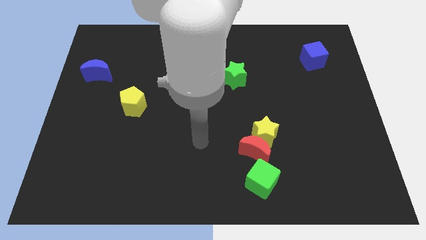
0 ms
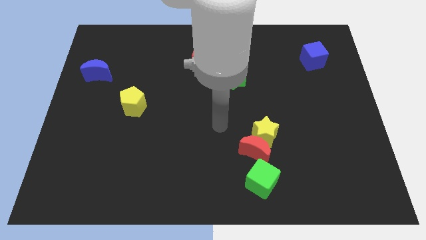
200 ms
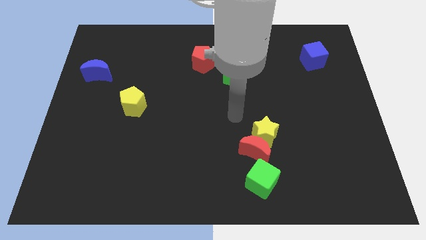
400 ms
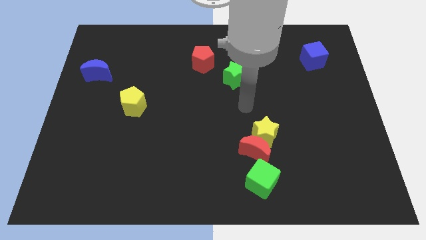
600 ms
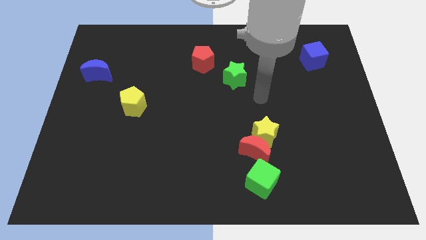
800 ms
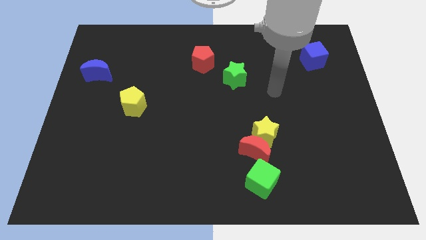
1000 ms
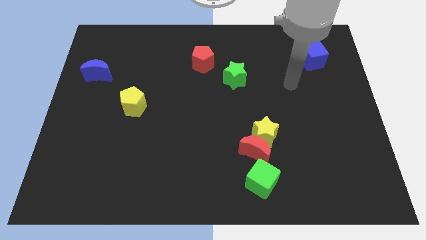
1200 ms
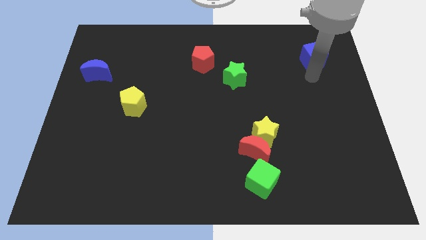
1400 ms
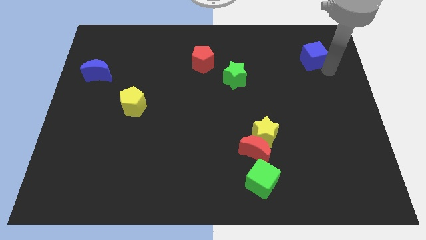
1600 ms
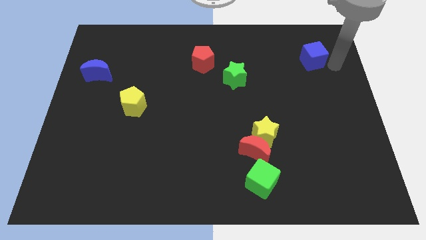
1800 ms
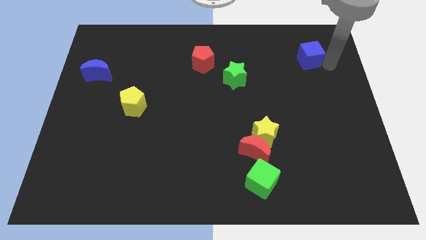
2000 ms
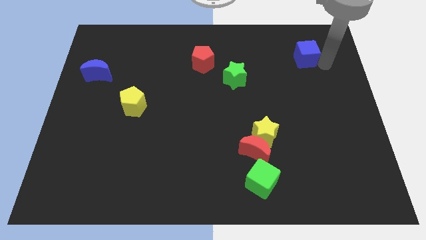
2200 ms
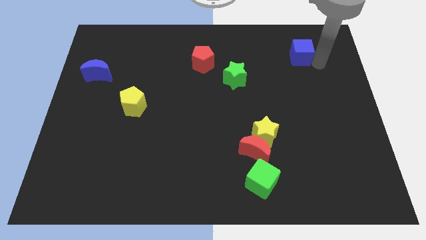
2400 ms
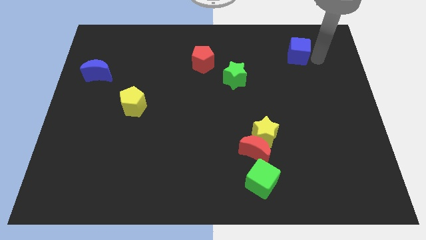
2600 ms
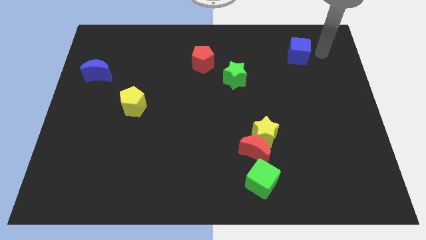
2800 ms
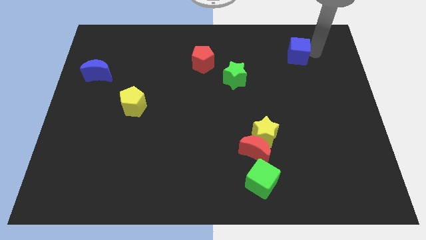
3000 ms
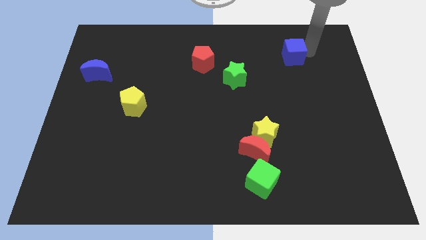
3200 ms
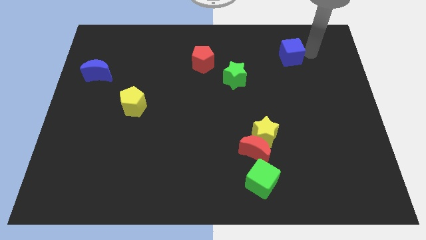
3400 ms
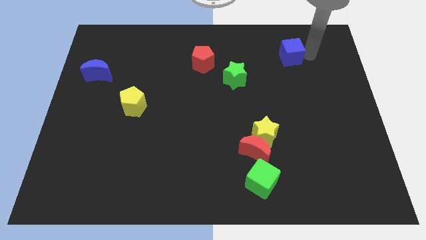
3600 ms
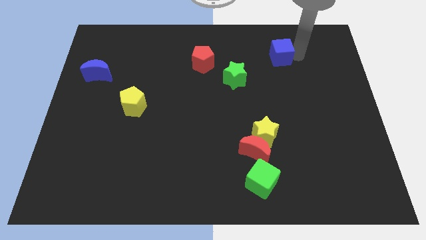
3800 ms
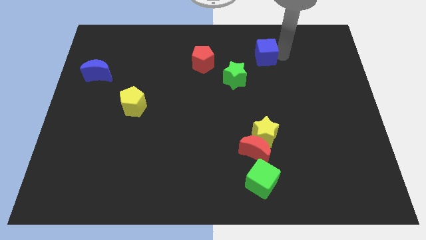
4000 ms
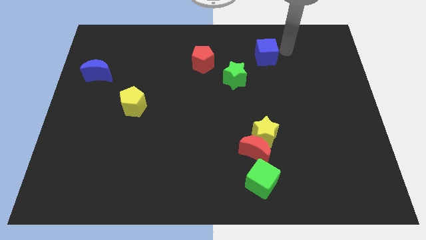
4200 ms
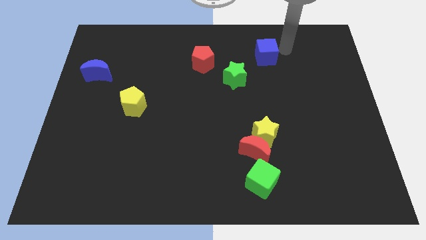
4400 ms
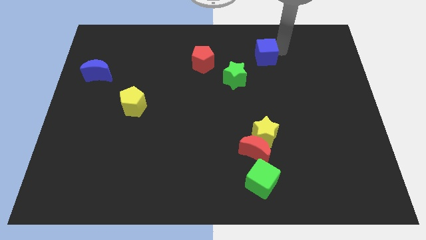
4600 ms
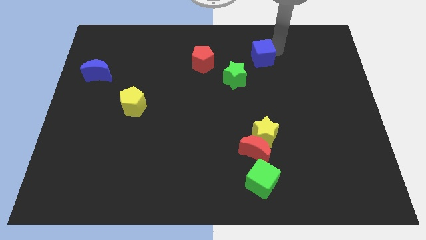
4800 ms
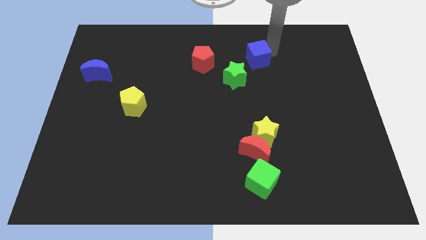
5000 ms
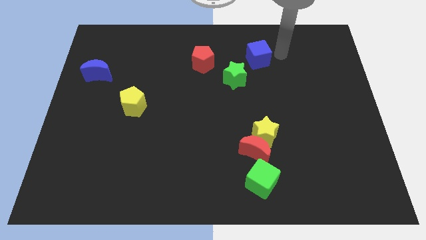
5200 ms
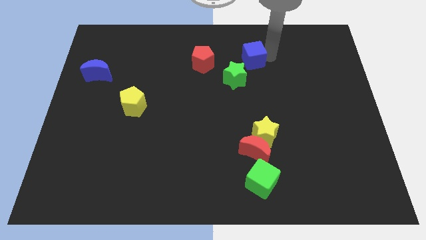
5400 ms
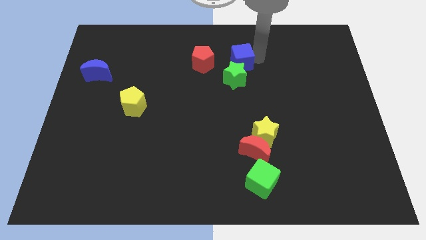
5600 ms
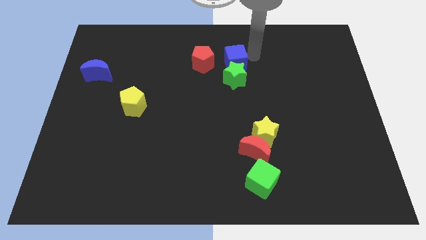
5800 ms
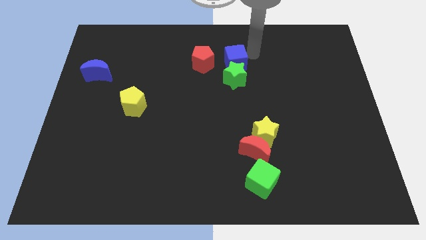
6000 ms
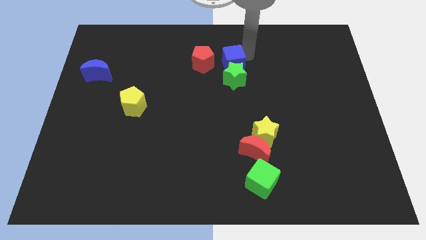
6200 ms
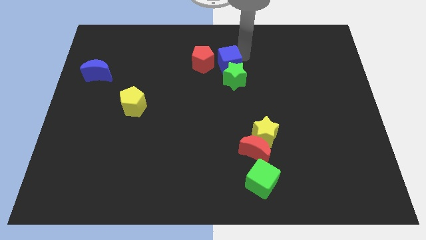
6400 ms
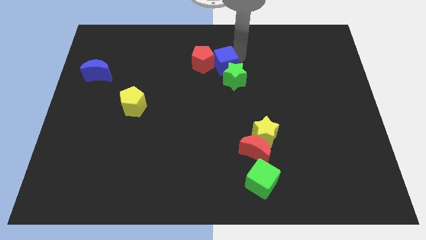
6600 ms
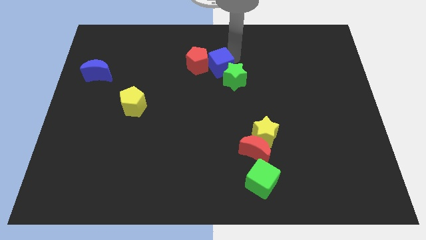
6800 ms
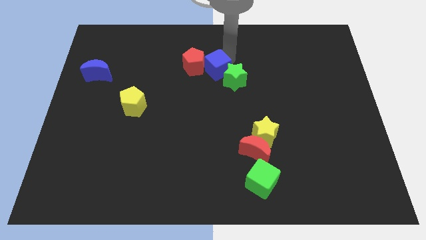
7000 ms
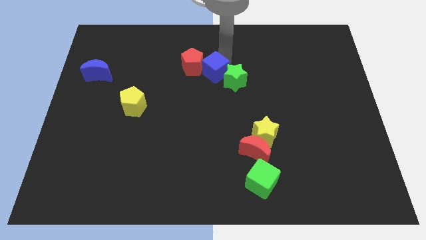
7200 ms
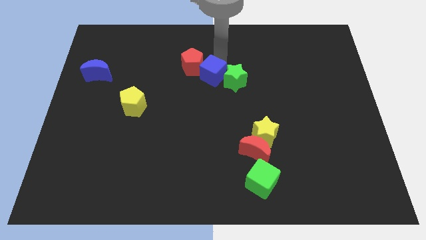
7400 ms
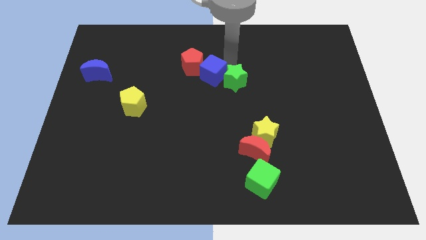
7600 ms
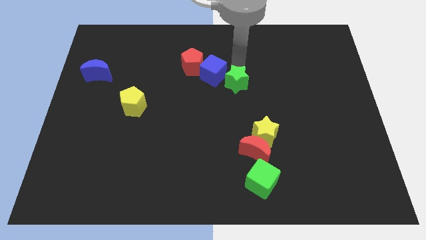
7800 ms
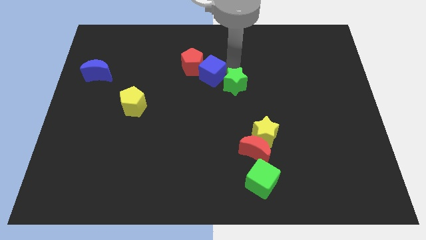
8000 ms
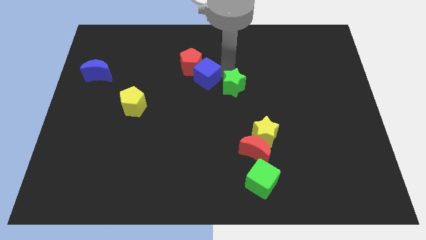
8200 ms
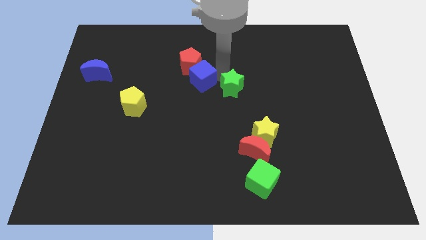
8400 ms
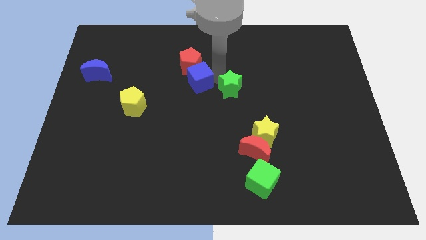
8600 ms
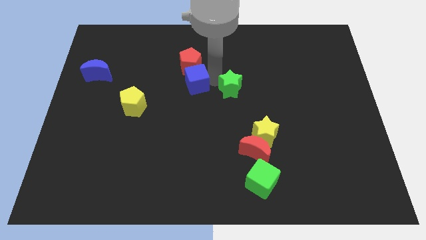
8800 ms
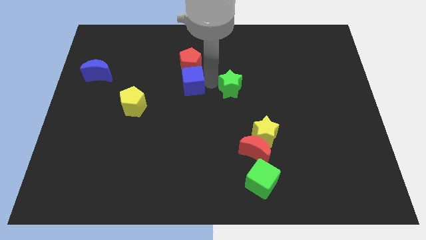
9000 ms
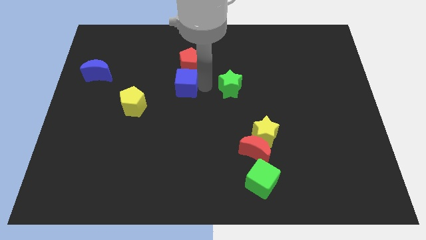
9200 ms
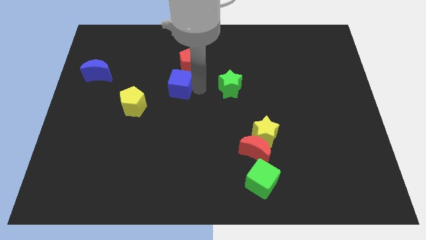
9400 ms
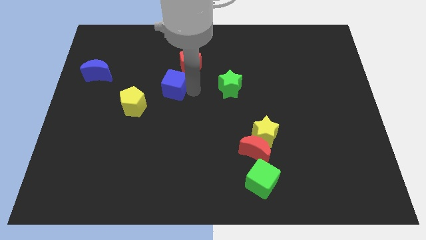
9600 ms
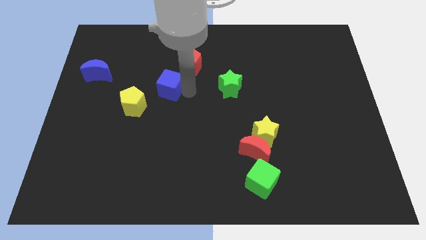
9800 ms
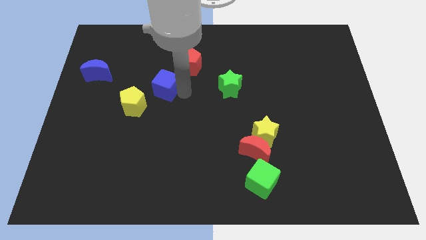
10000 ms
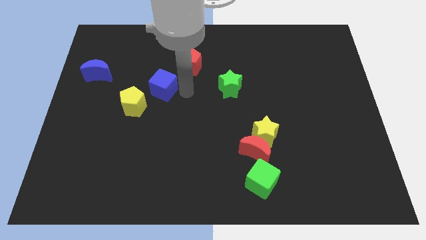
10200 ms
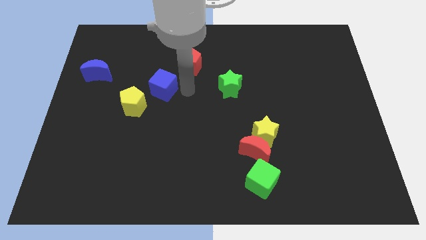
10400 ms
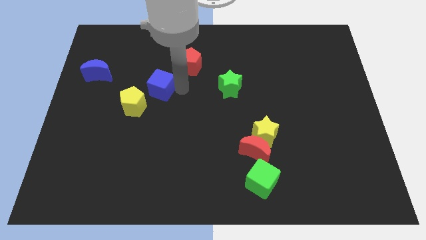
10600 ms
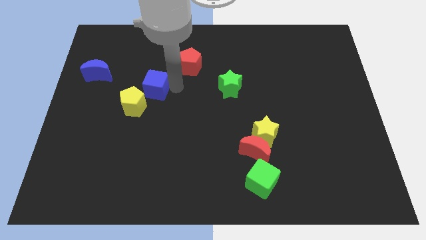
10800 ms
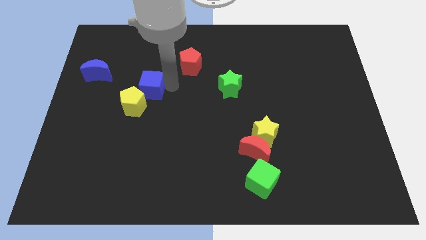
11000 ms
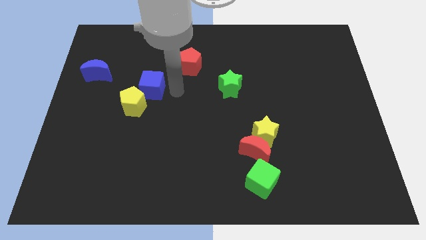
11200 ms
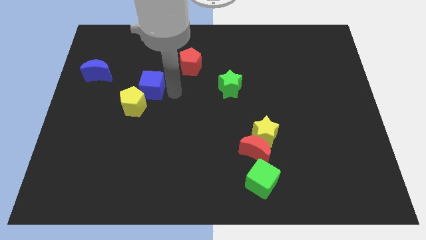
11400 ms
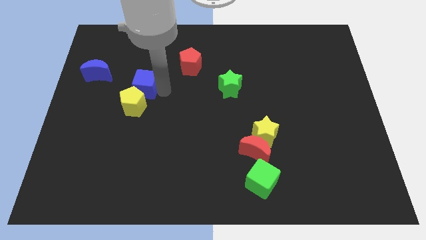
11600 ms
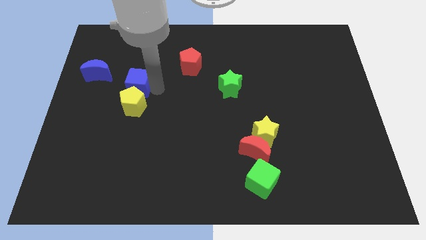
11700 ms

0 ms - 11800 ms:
move the blue cube to the top left side of the yellow pentagon

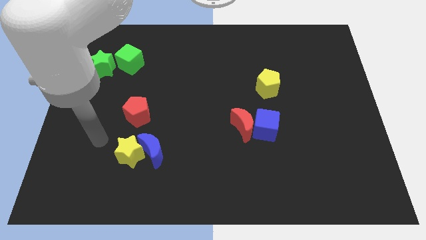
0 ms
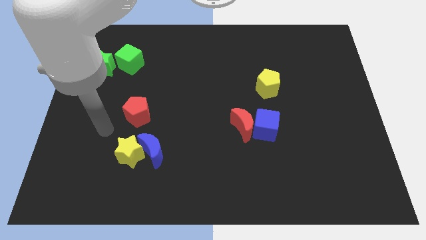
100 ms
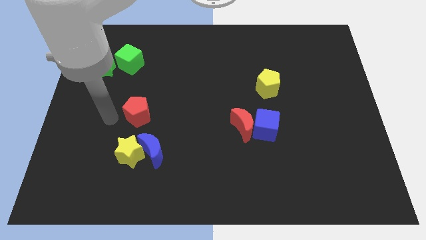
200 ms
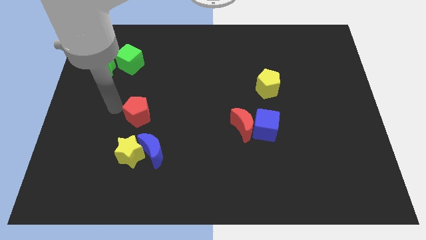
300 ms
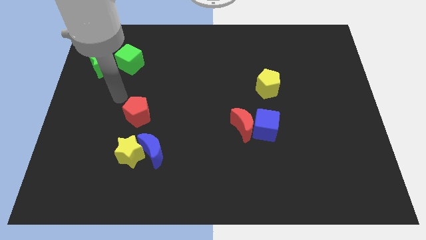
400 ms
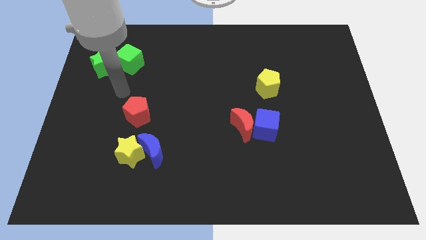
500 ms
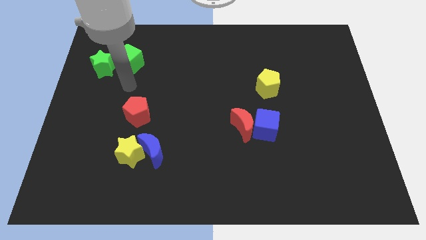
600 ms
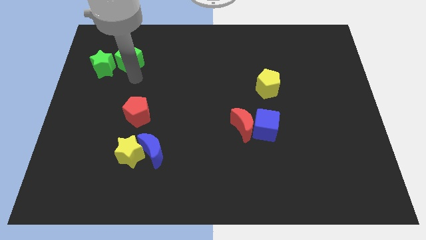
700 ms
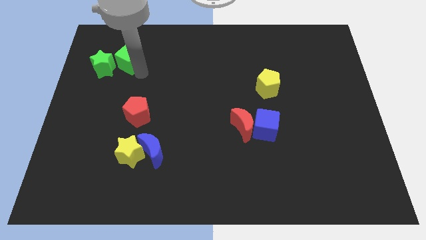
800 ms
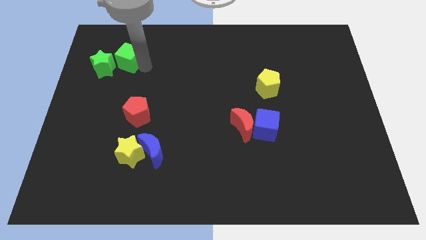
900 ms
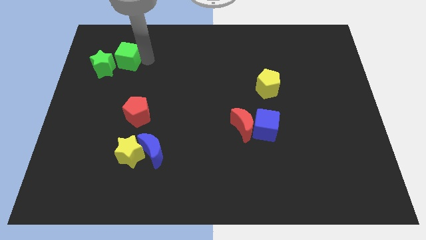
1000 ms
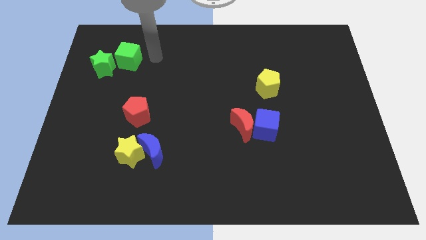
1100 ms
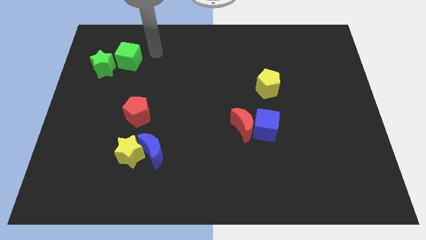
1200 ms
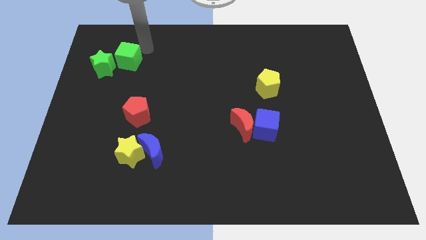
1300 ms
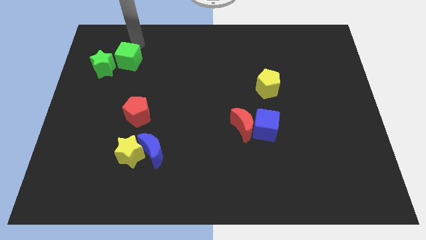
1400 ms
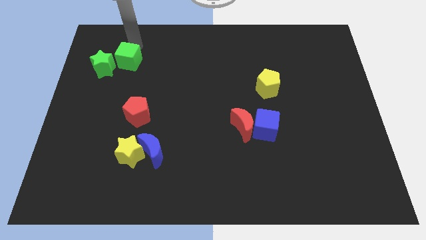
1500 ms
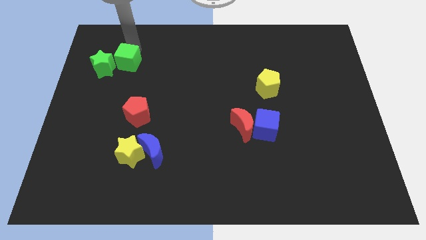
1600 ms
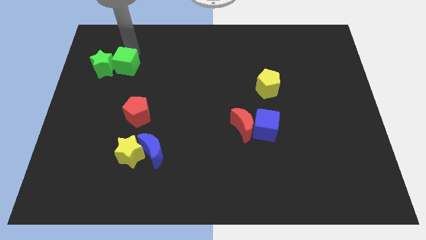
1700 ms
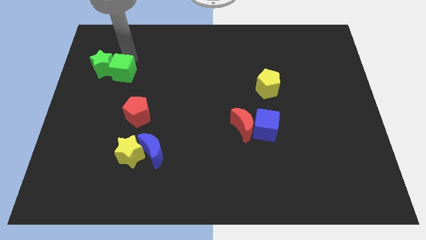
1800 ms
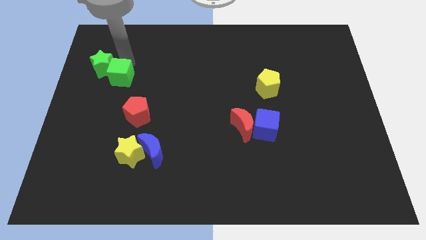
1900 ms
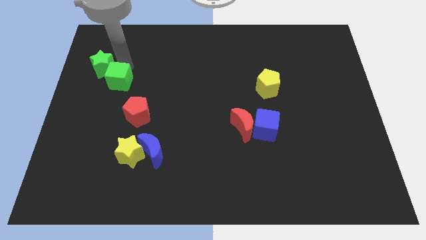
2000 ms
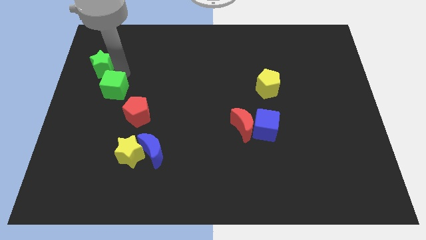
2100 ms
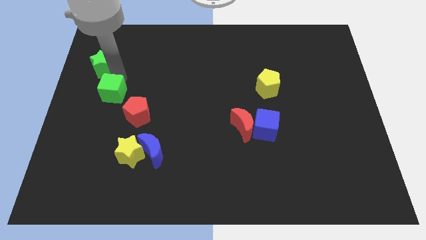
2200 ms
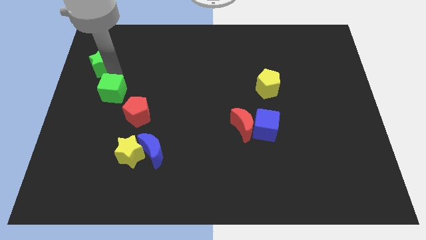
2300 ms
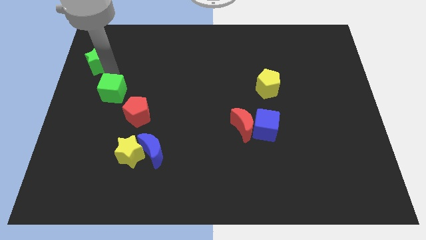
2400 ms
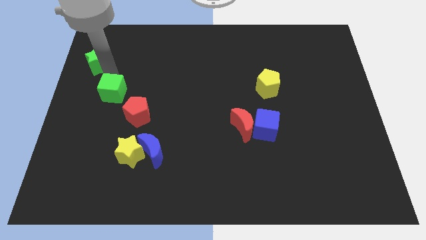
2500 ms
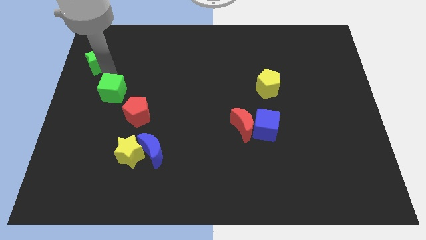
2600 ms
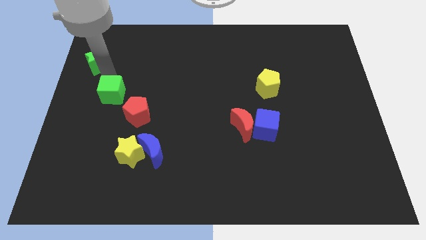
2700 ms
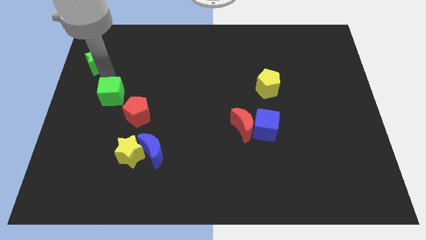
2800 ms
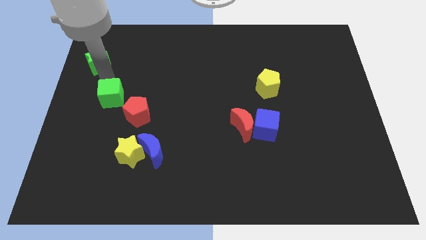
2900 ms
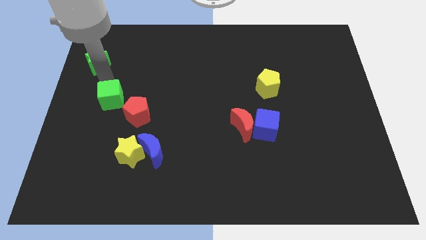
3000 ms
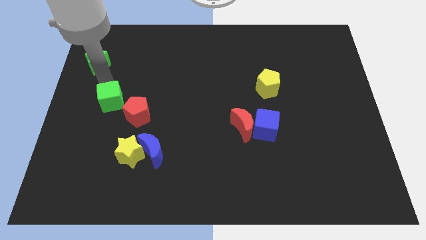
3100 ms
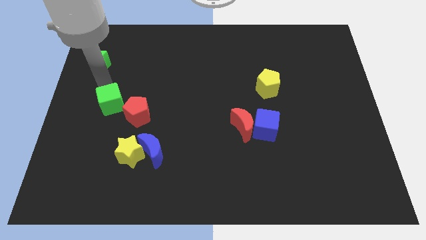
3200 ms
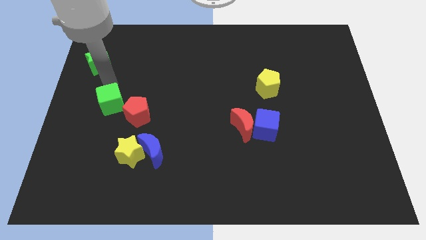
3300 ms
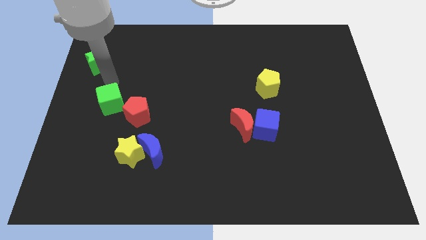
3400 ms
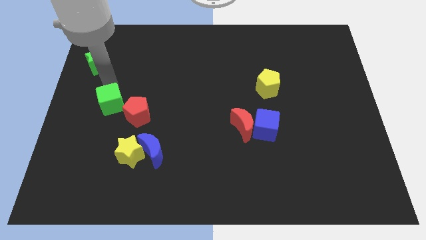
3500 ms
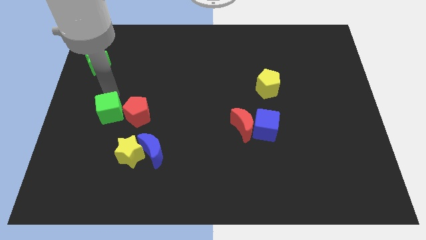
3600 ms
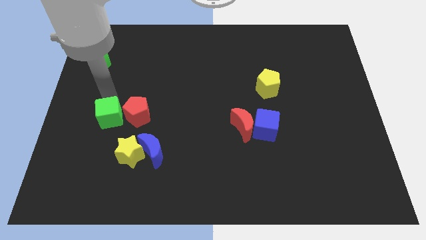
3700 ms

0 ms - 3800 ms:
slide the green cube to the bottom left side of the red pentagon
